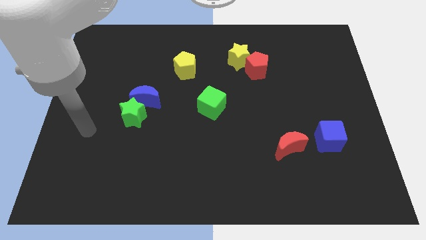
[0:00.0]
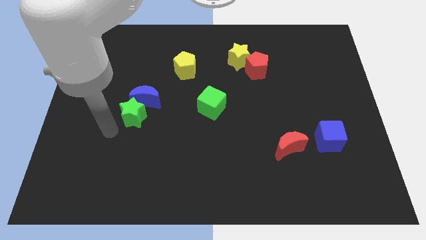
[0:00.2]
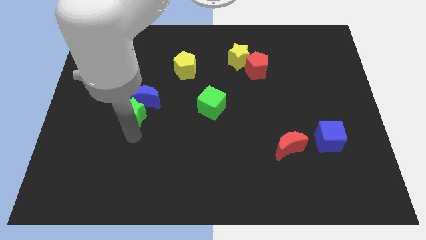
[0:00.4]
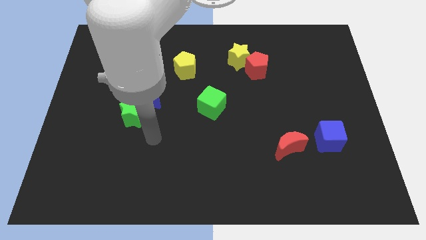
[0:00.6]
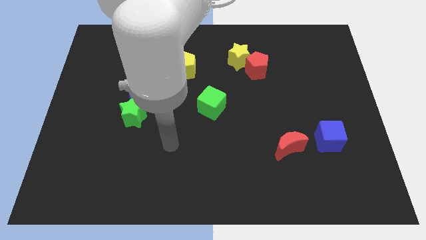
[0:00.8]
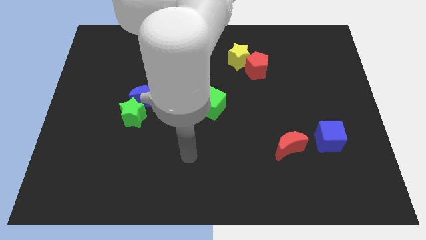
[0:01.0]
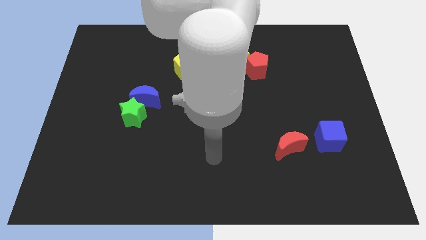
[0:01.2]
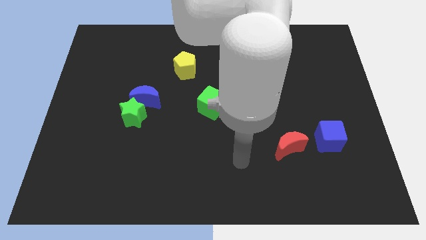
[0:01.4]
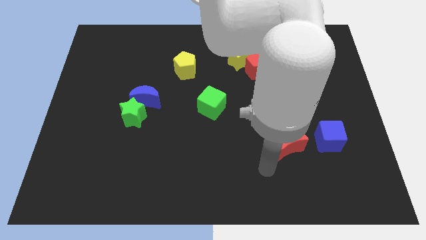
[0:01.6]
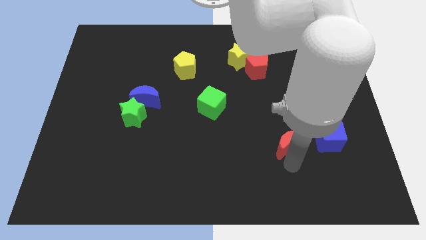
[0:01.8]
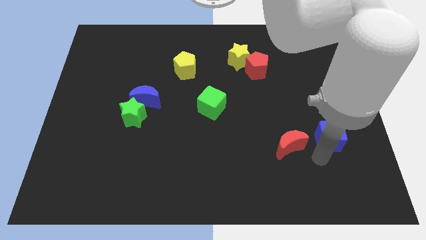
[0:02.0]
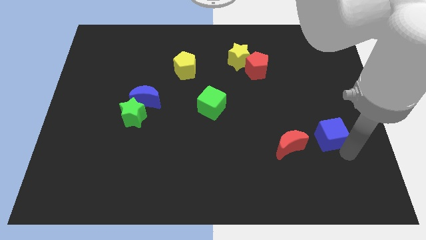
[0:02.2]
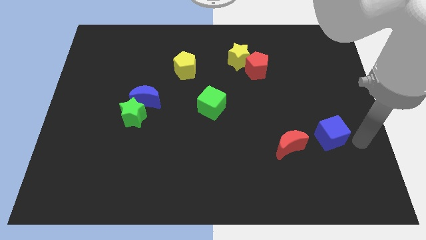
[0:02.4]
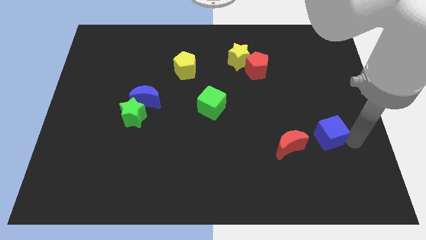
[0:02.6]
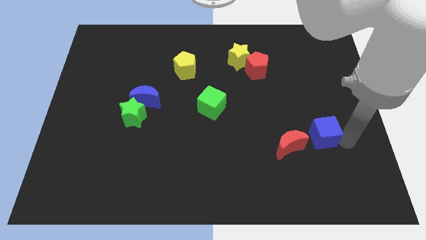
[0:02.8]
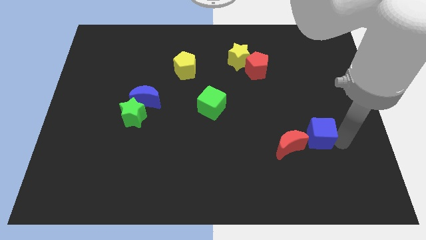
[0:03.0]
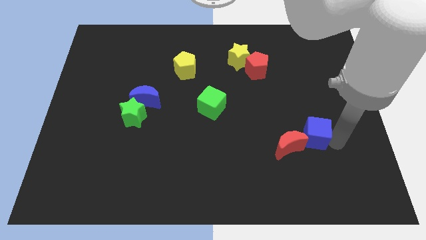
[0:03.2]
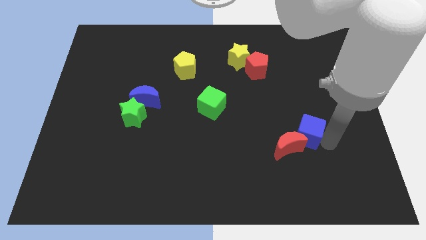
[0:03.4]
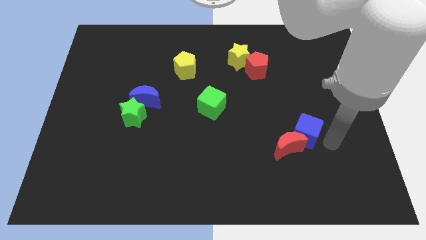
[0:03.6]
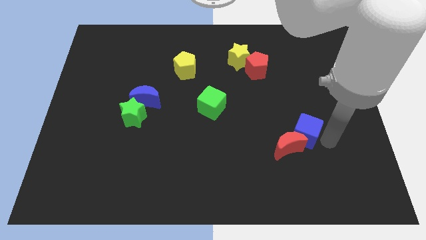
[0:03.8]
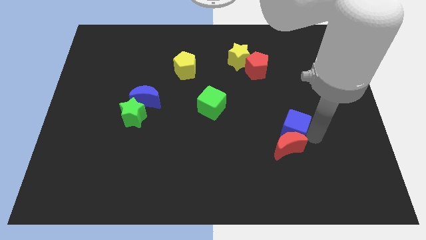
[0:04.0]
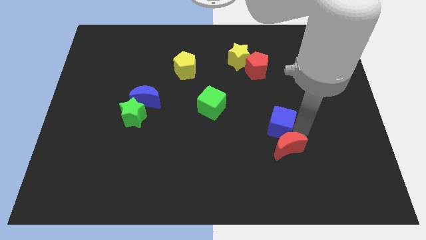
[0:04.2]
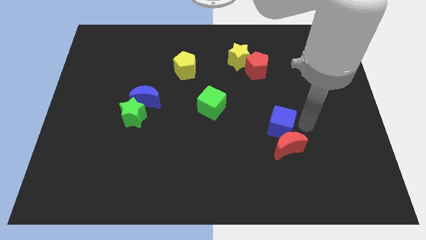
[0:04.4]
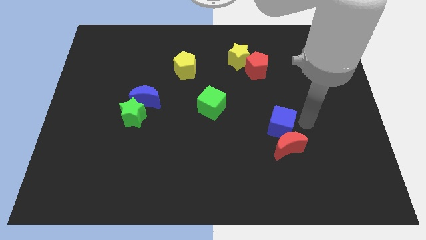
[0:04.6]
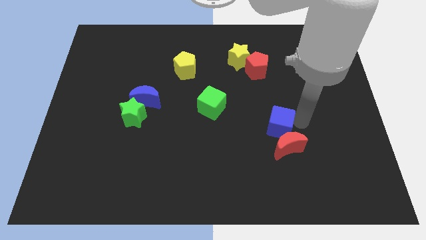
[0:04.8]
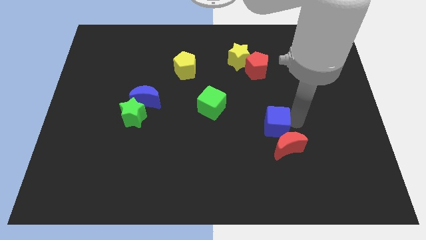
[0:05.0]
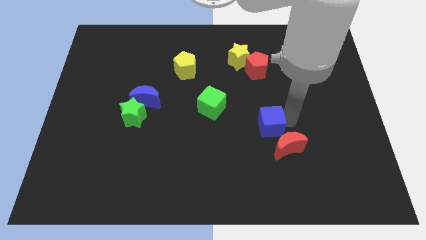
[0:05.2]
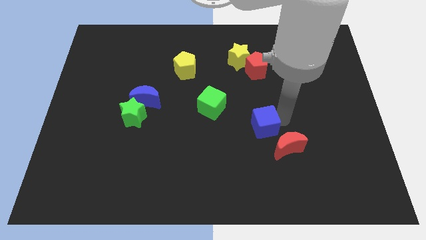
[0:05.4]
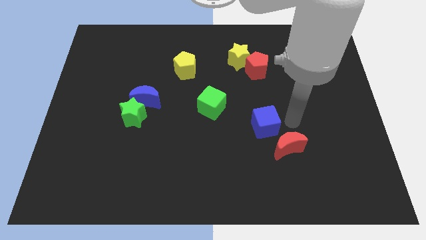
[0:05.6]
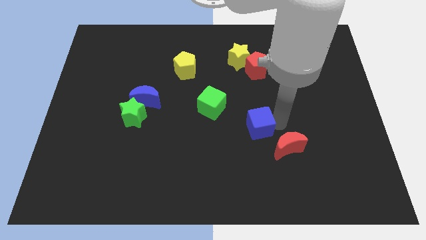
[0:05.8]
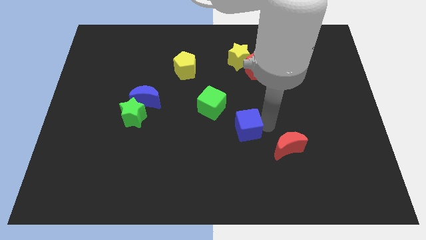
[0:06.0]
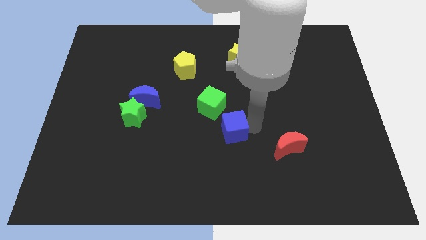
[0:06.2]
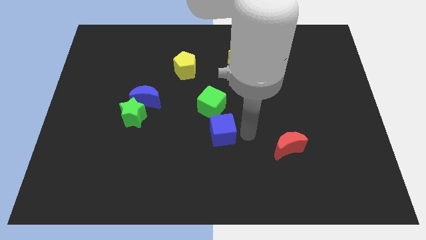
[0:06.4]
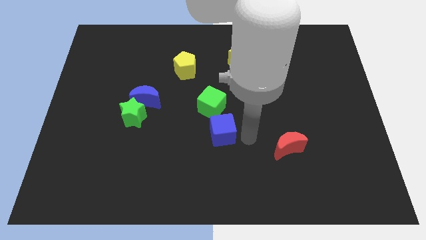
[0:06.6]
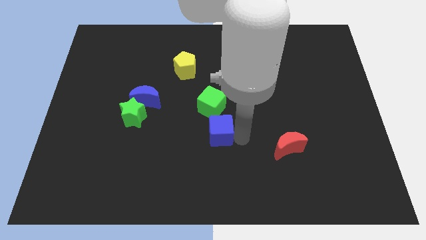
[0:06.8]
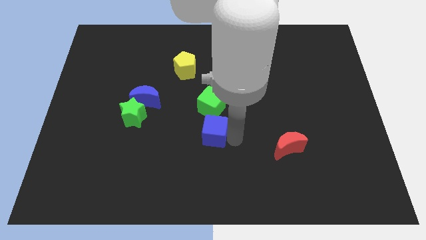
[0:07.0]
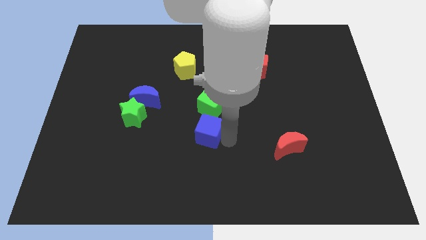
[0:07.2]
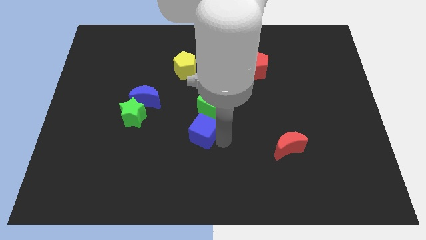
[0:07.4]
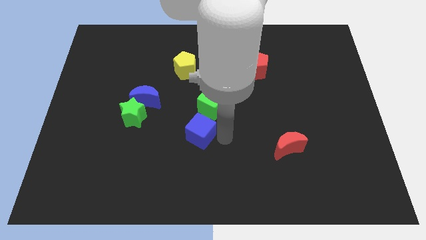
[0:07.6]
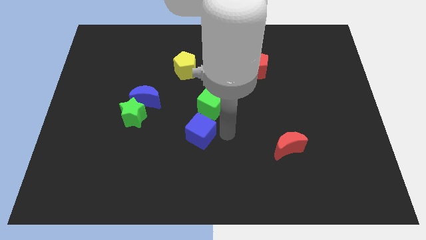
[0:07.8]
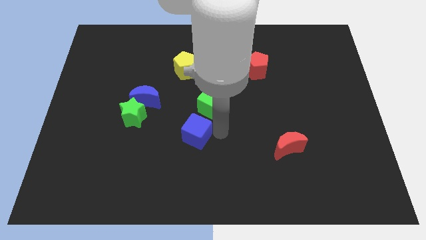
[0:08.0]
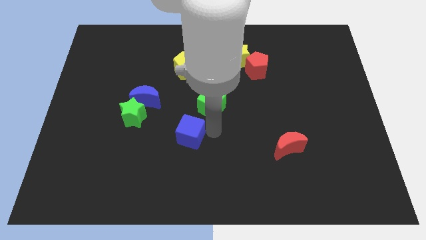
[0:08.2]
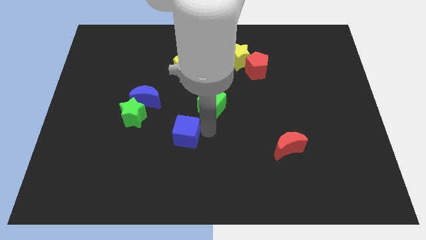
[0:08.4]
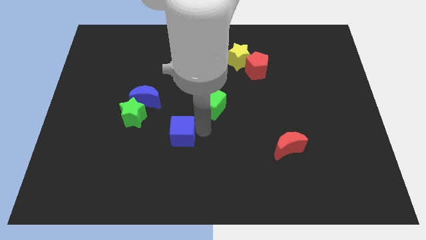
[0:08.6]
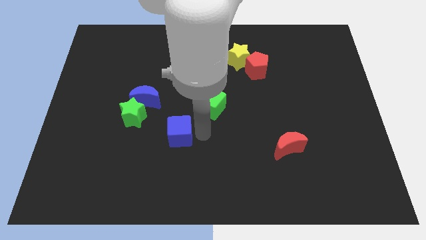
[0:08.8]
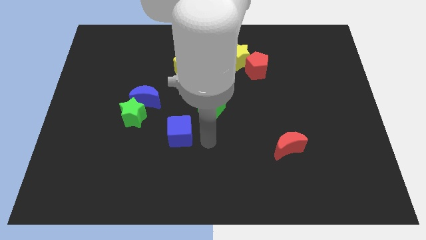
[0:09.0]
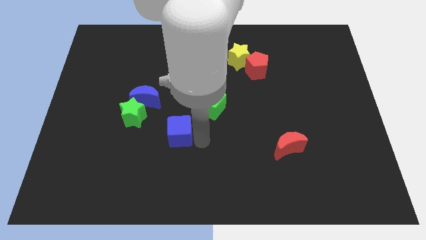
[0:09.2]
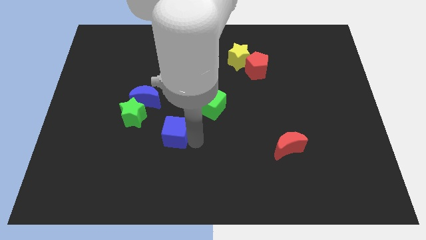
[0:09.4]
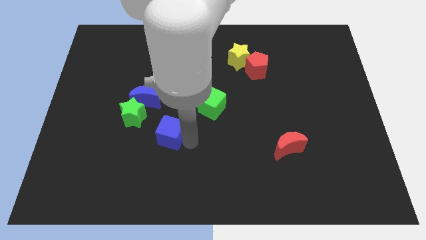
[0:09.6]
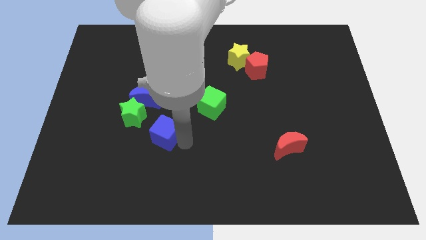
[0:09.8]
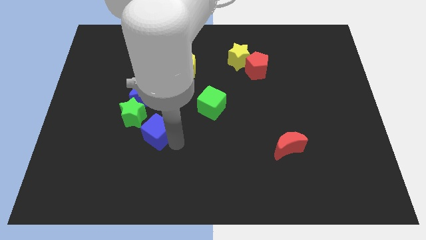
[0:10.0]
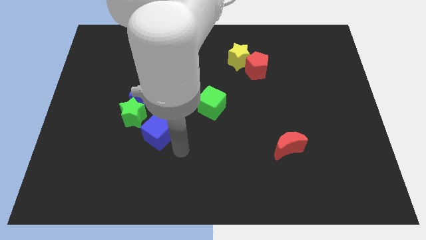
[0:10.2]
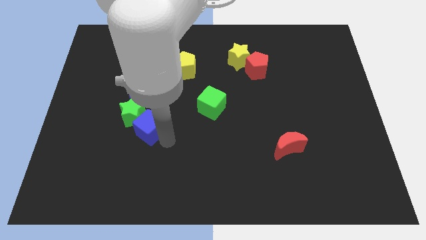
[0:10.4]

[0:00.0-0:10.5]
push the blue cube towards the green star

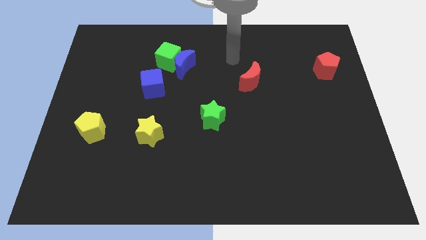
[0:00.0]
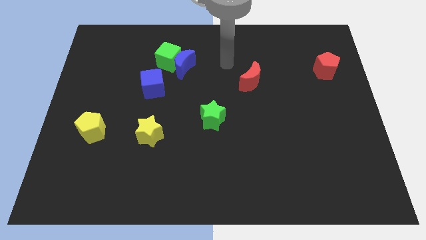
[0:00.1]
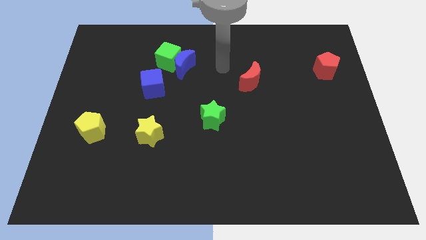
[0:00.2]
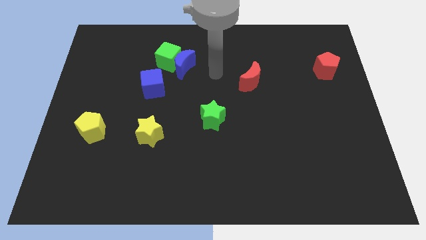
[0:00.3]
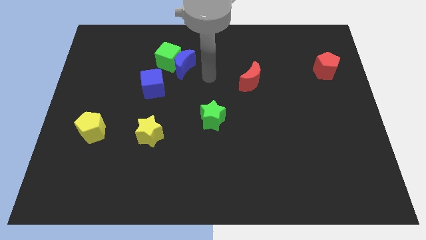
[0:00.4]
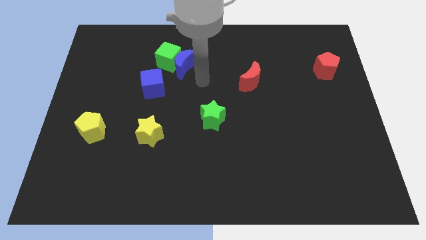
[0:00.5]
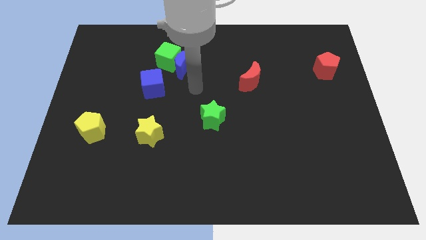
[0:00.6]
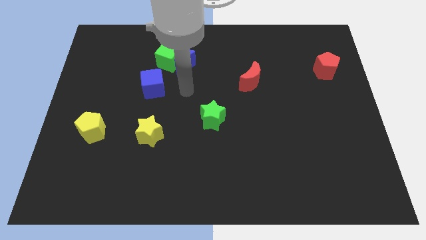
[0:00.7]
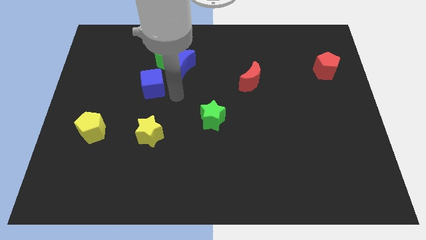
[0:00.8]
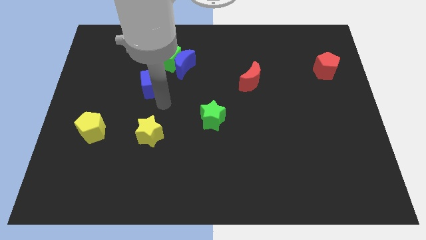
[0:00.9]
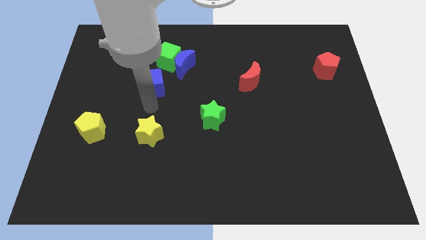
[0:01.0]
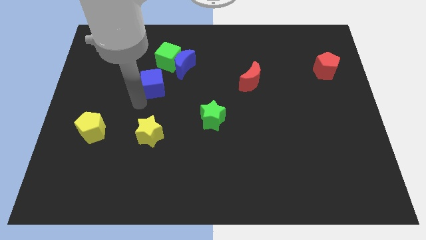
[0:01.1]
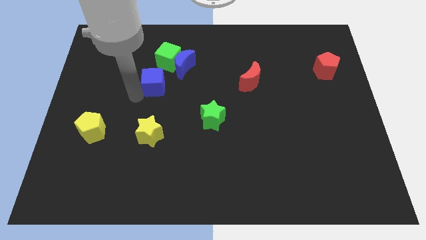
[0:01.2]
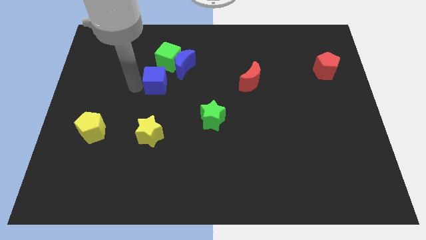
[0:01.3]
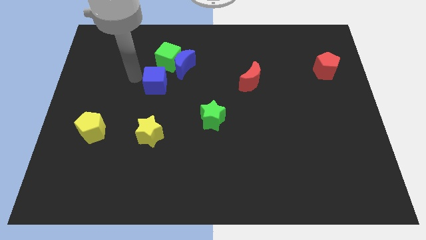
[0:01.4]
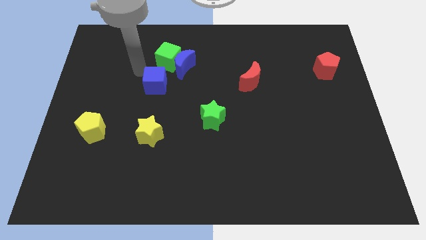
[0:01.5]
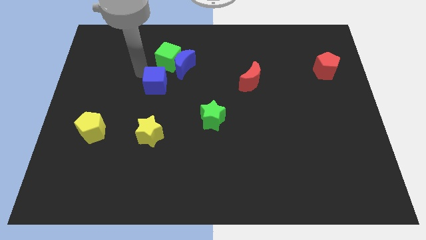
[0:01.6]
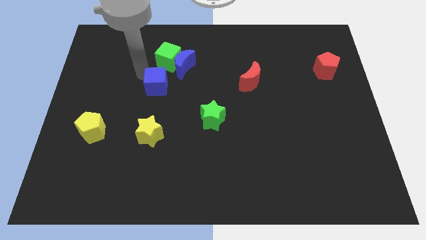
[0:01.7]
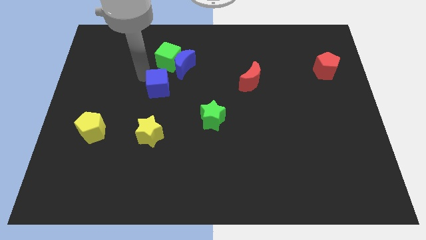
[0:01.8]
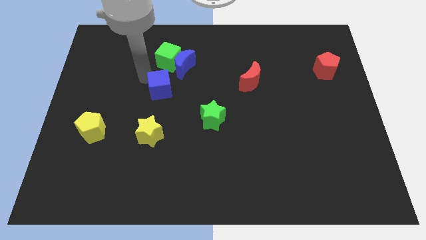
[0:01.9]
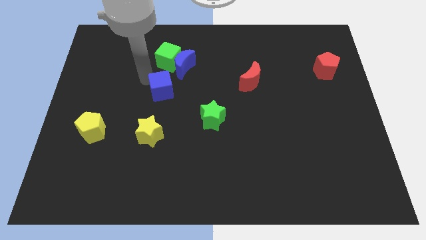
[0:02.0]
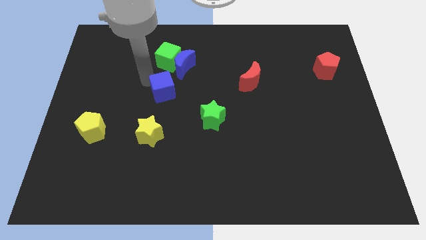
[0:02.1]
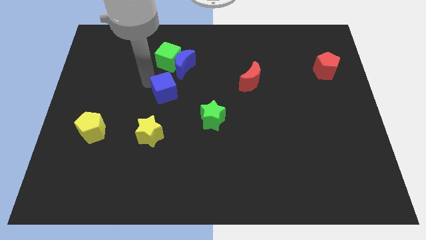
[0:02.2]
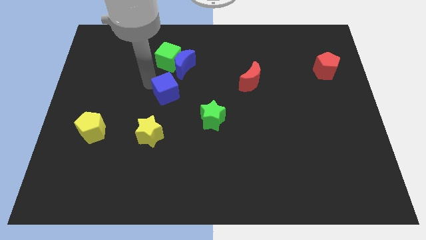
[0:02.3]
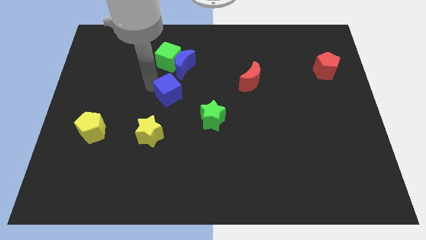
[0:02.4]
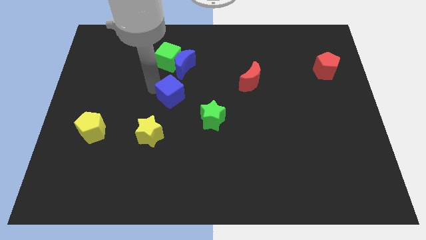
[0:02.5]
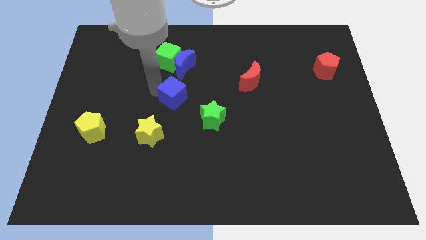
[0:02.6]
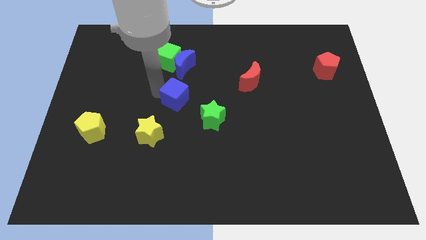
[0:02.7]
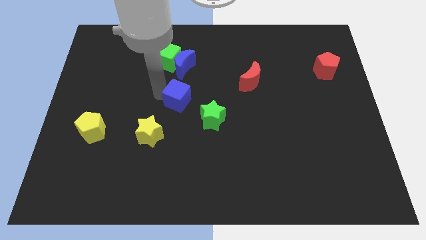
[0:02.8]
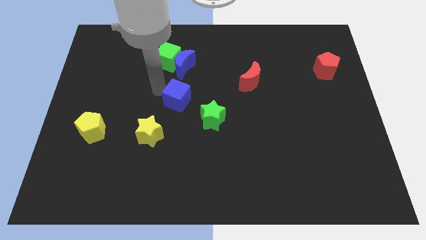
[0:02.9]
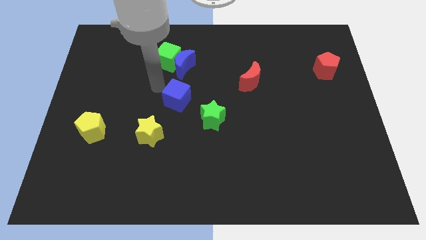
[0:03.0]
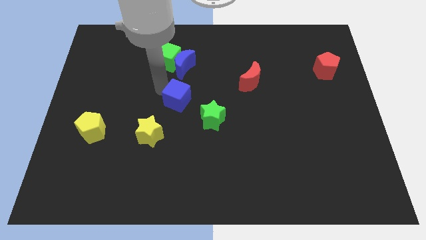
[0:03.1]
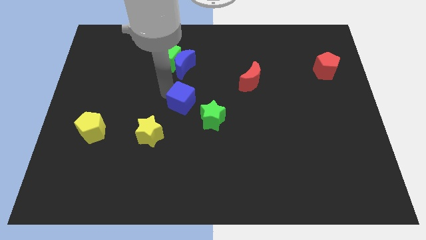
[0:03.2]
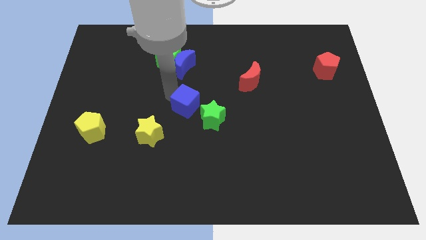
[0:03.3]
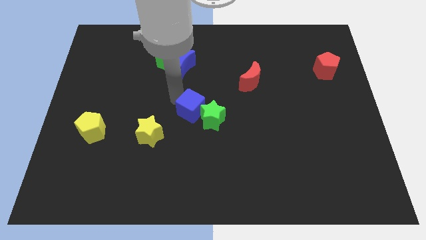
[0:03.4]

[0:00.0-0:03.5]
move the blue cube towards the green star
